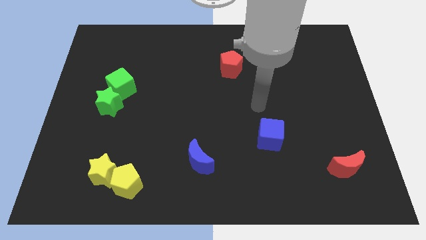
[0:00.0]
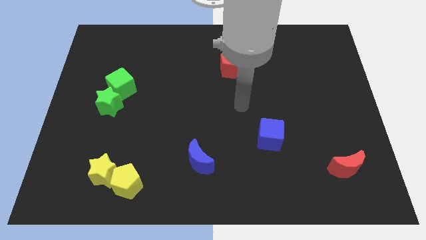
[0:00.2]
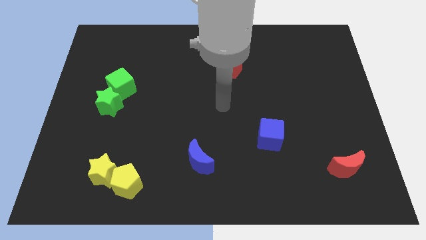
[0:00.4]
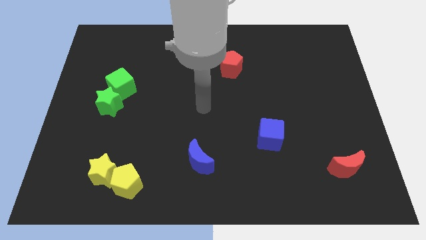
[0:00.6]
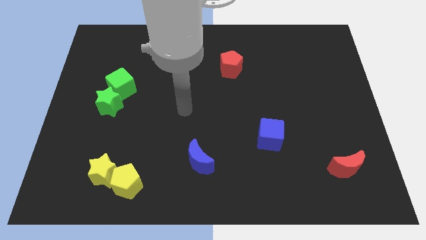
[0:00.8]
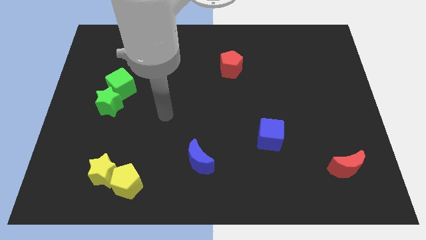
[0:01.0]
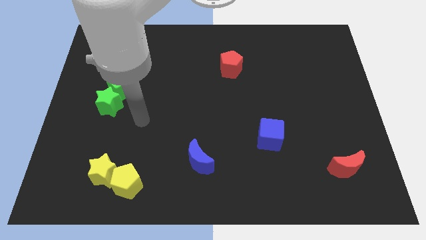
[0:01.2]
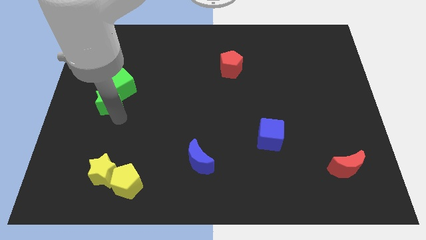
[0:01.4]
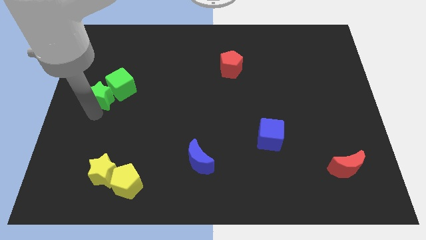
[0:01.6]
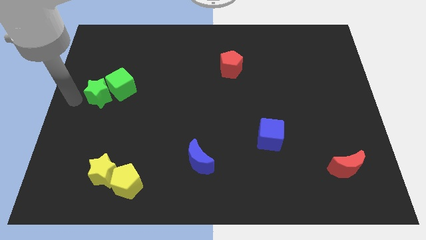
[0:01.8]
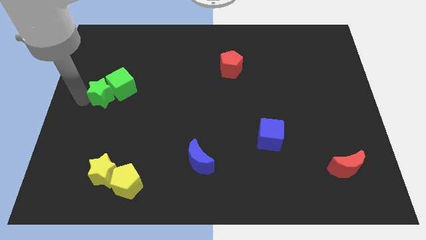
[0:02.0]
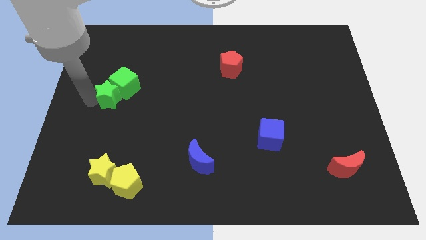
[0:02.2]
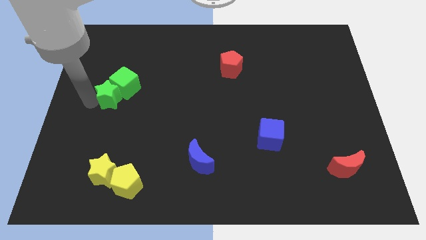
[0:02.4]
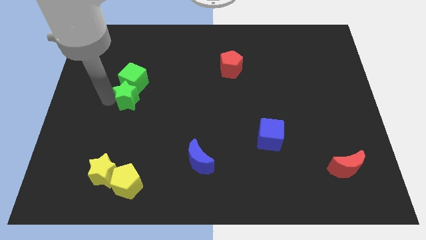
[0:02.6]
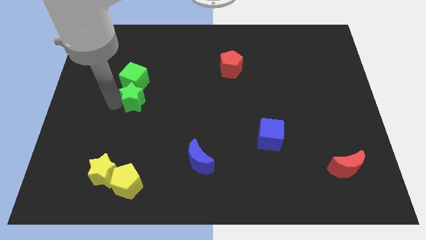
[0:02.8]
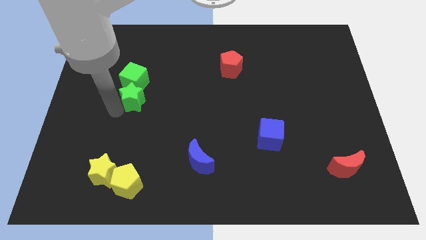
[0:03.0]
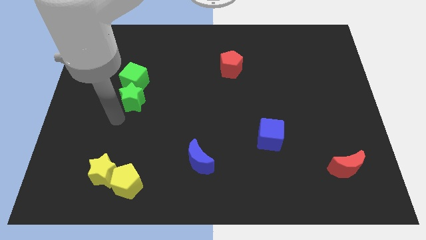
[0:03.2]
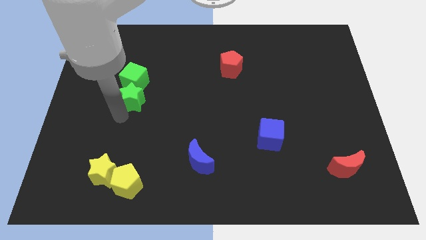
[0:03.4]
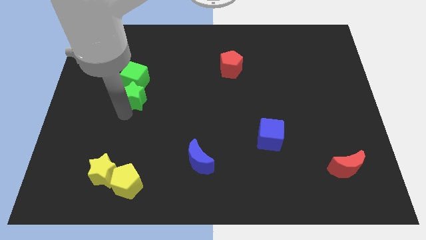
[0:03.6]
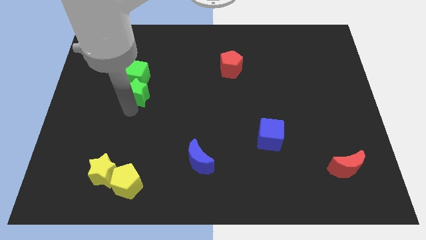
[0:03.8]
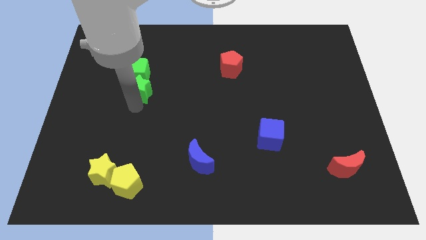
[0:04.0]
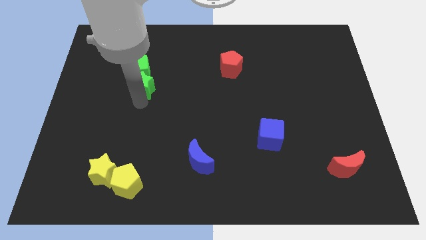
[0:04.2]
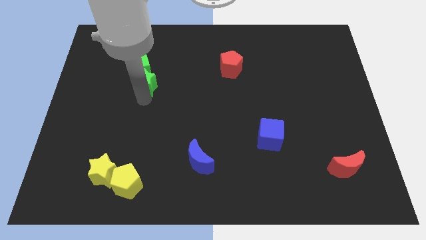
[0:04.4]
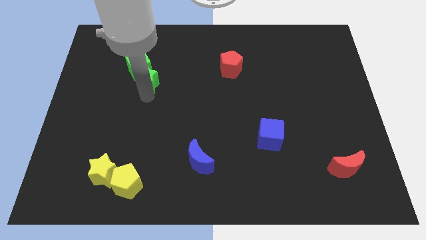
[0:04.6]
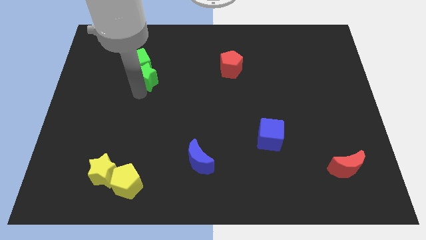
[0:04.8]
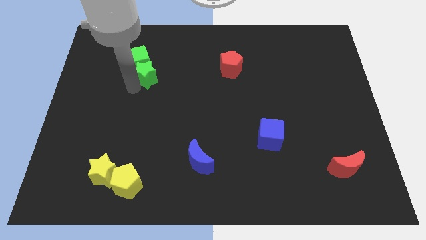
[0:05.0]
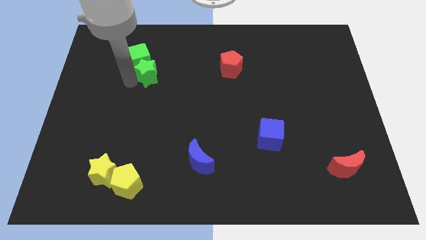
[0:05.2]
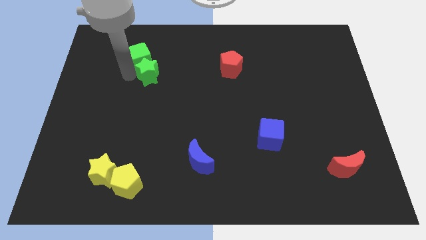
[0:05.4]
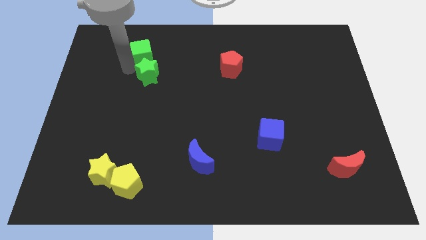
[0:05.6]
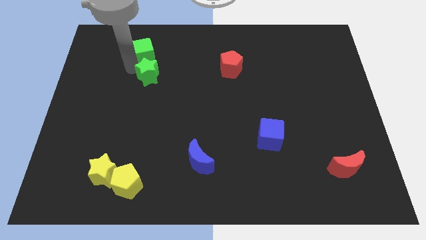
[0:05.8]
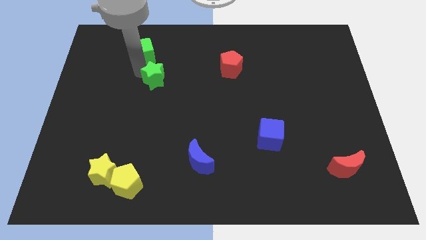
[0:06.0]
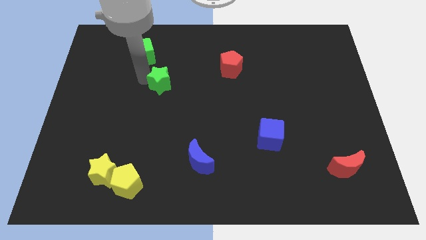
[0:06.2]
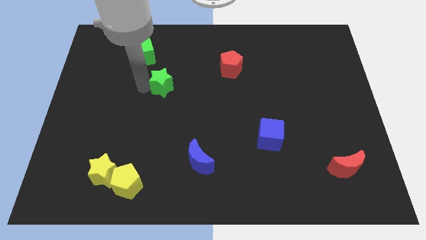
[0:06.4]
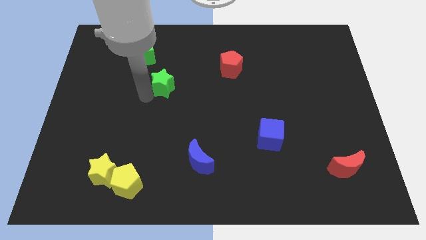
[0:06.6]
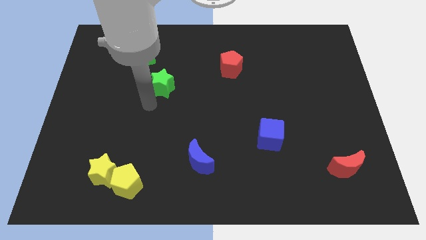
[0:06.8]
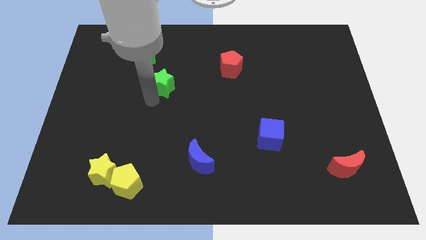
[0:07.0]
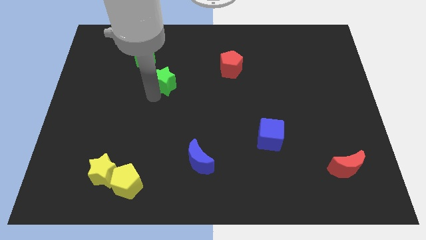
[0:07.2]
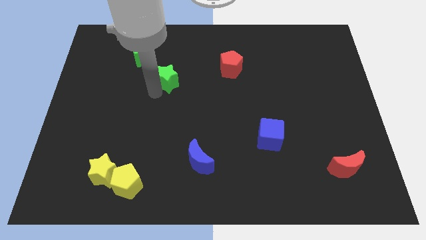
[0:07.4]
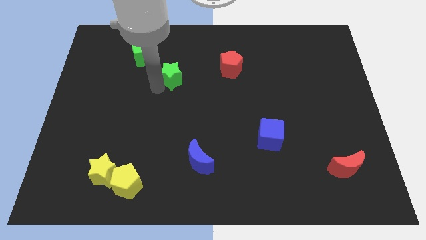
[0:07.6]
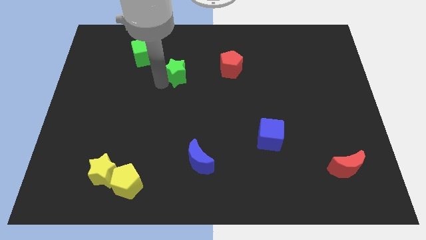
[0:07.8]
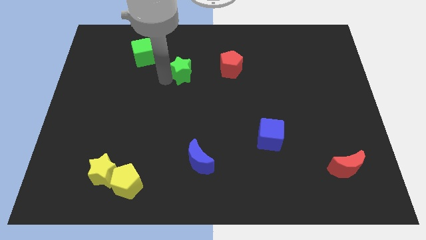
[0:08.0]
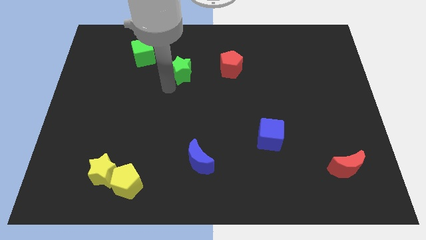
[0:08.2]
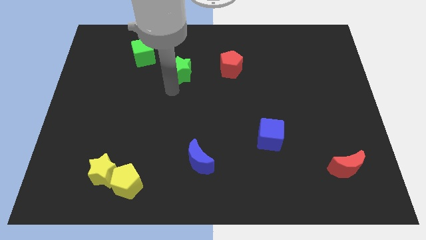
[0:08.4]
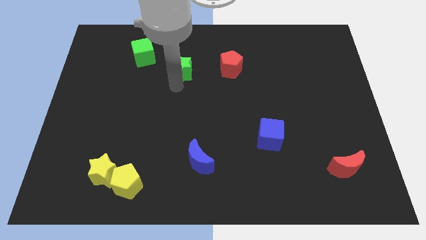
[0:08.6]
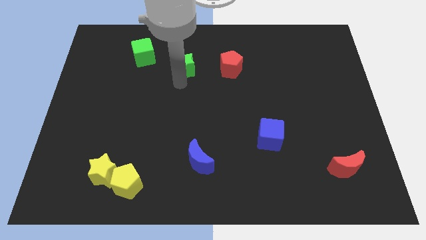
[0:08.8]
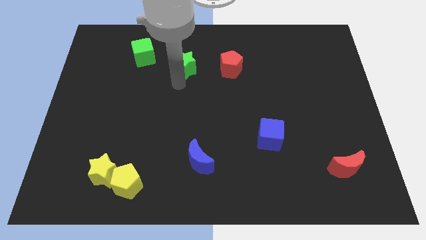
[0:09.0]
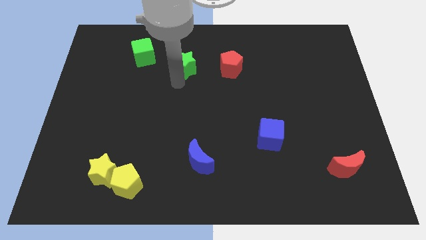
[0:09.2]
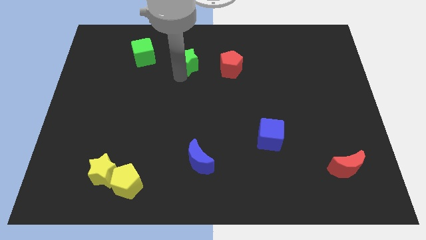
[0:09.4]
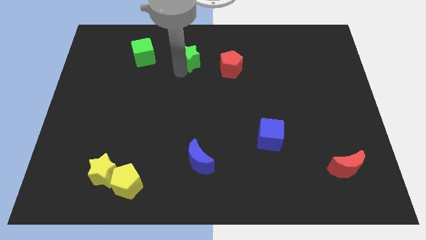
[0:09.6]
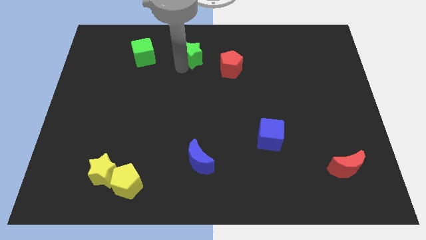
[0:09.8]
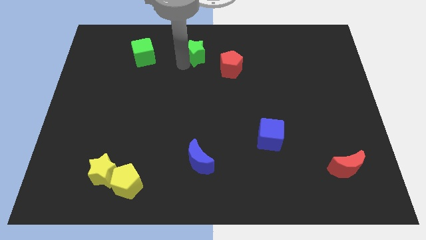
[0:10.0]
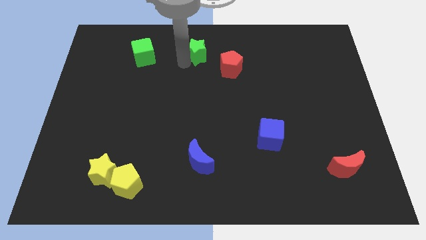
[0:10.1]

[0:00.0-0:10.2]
push the green star to the towards your base

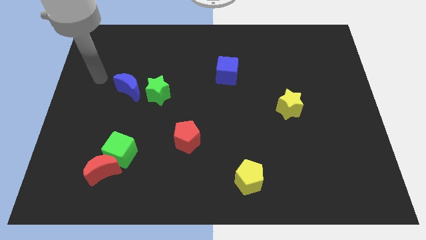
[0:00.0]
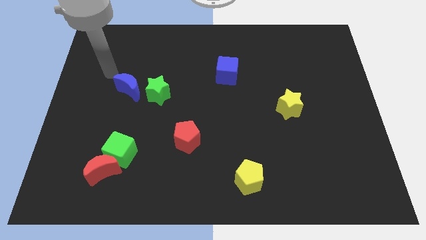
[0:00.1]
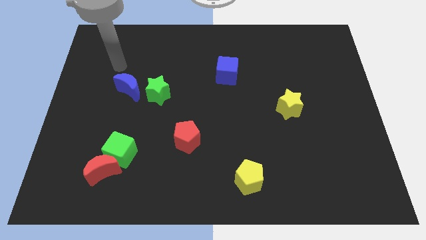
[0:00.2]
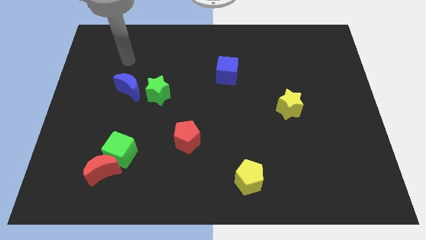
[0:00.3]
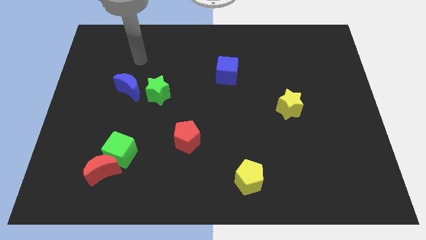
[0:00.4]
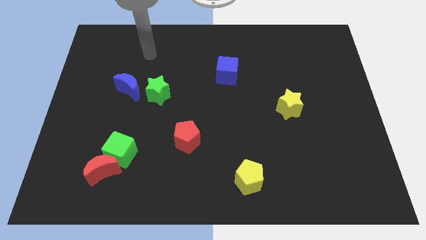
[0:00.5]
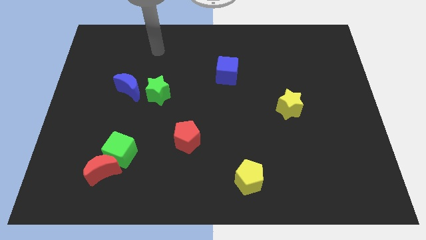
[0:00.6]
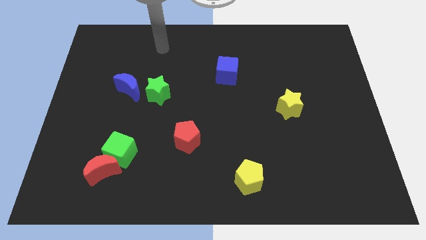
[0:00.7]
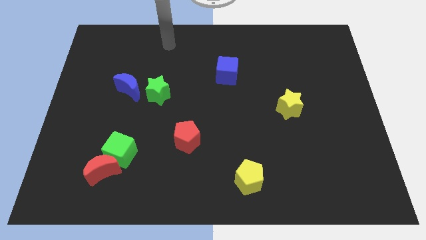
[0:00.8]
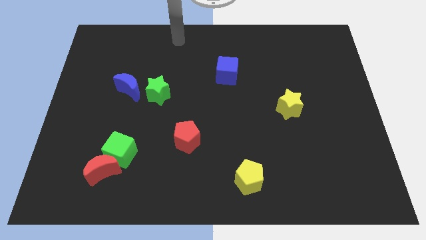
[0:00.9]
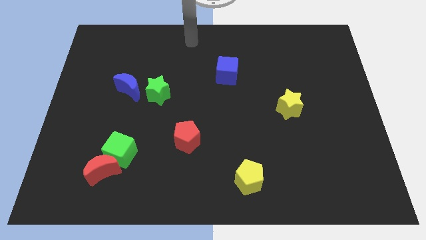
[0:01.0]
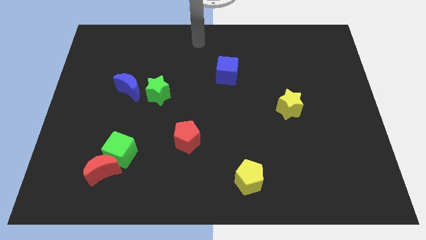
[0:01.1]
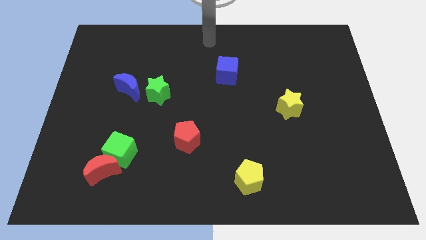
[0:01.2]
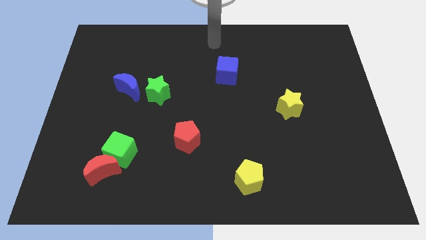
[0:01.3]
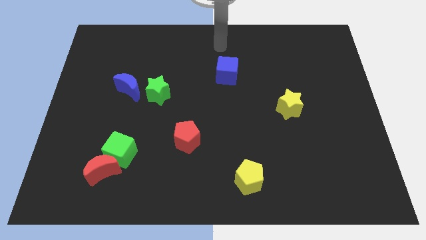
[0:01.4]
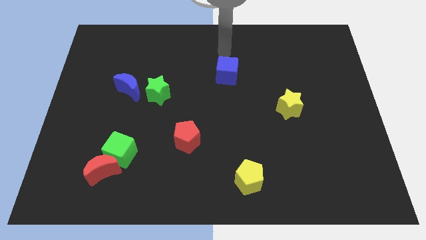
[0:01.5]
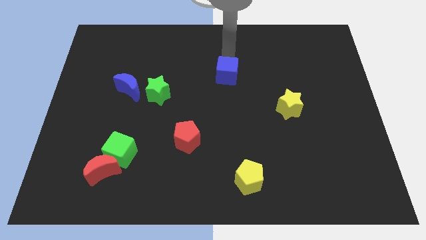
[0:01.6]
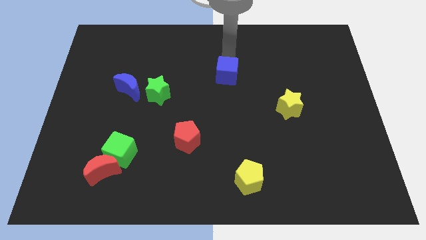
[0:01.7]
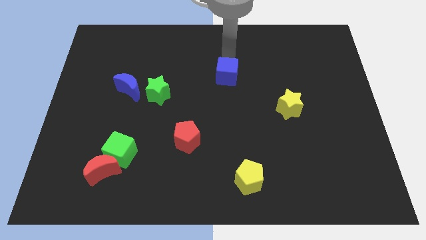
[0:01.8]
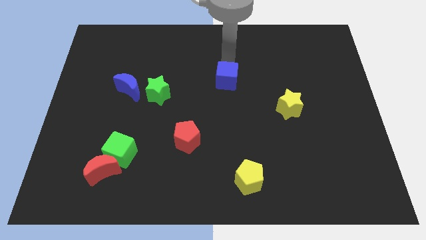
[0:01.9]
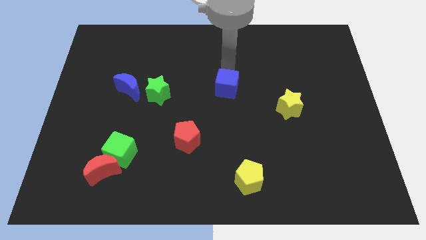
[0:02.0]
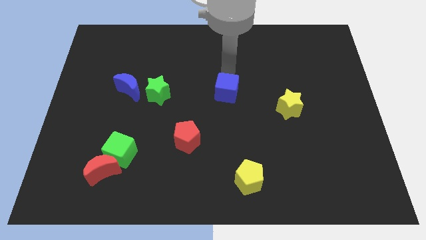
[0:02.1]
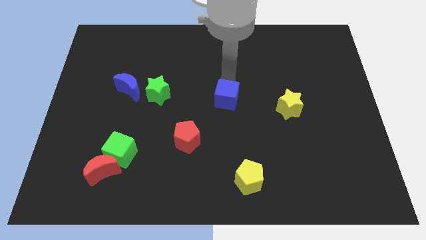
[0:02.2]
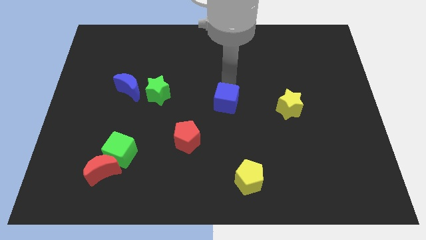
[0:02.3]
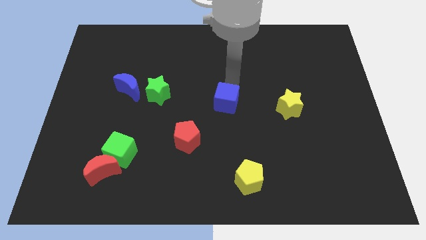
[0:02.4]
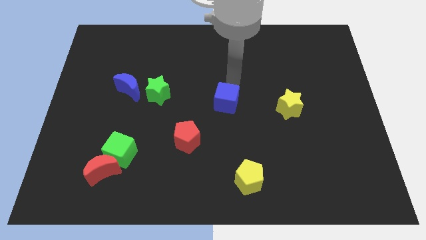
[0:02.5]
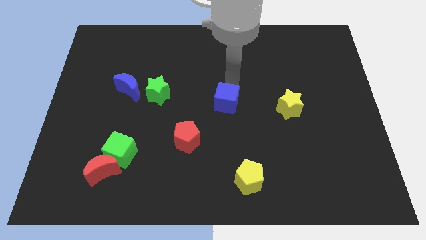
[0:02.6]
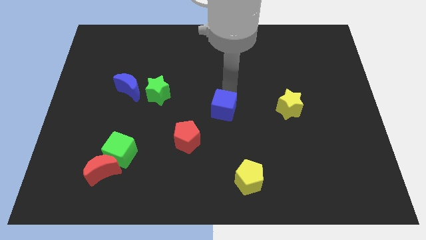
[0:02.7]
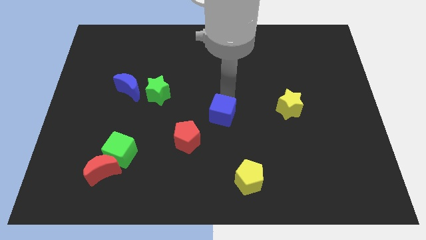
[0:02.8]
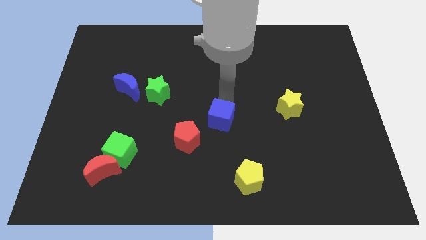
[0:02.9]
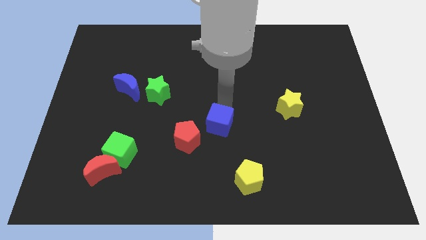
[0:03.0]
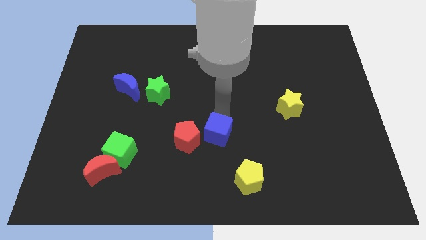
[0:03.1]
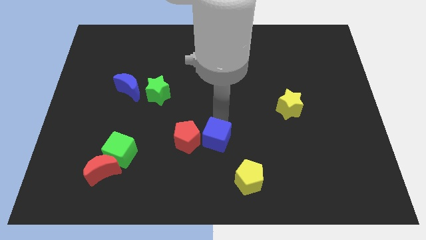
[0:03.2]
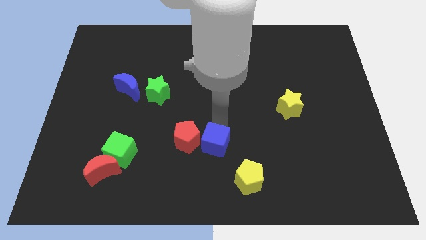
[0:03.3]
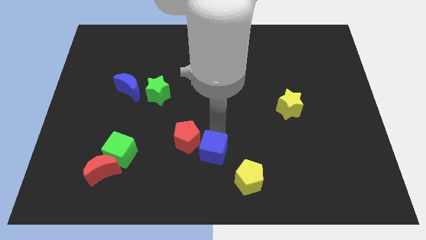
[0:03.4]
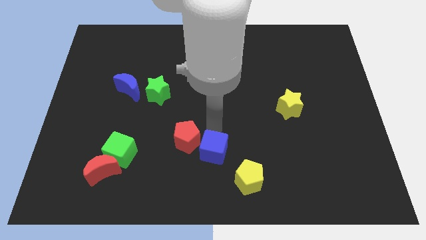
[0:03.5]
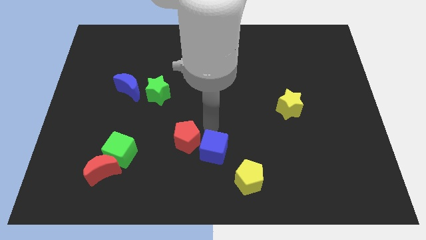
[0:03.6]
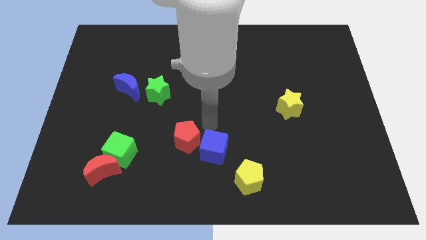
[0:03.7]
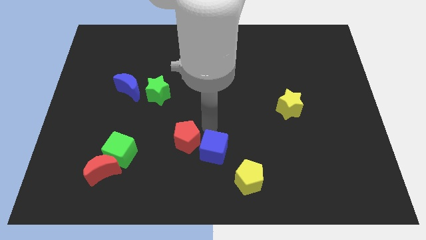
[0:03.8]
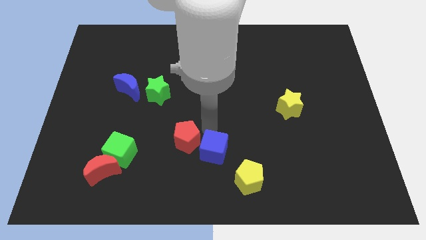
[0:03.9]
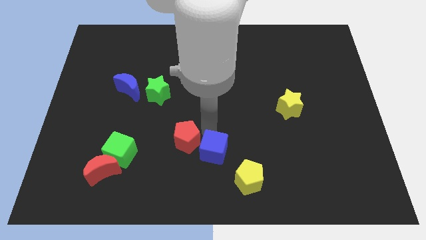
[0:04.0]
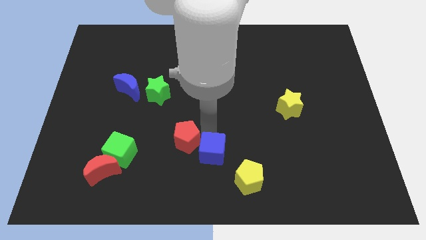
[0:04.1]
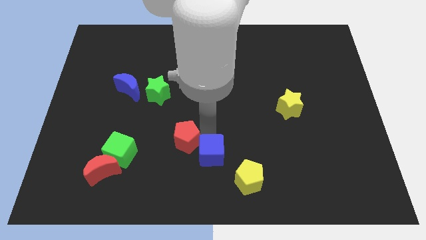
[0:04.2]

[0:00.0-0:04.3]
put the blue cube to the bottom
